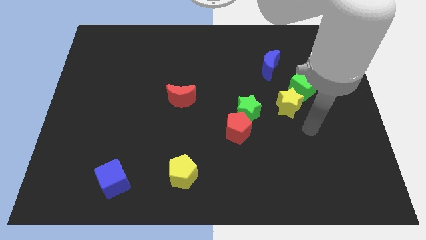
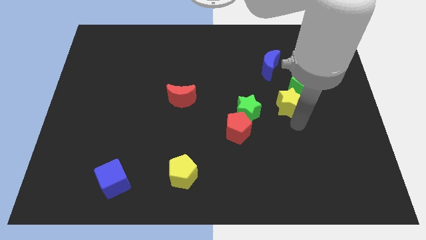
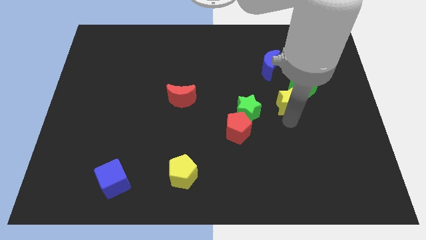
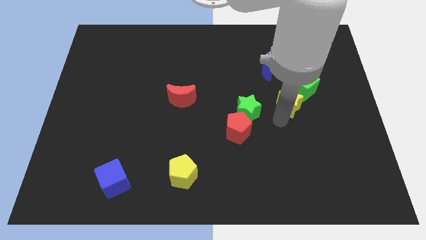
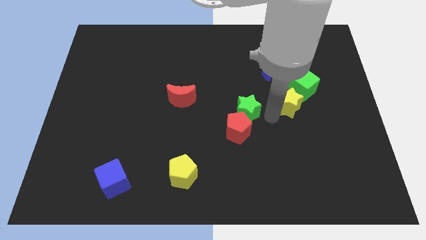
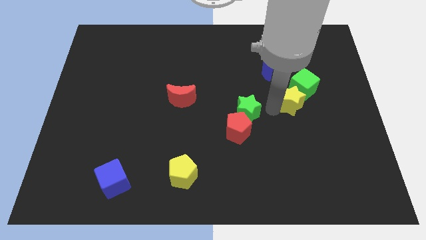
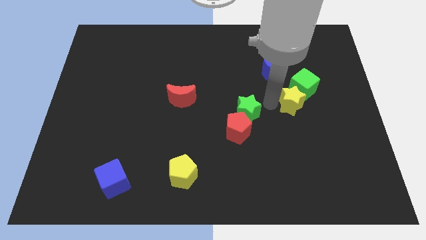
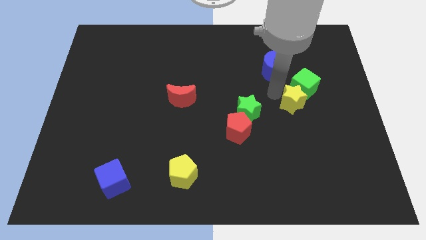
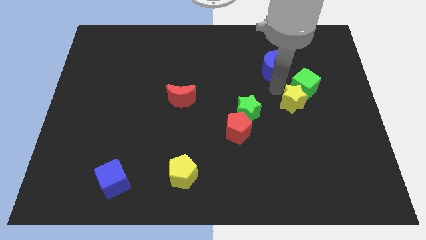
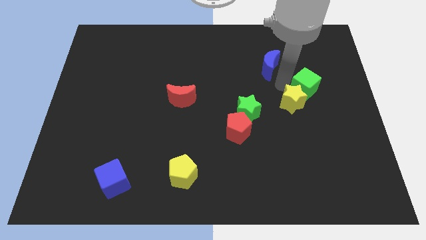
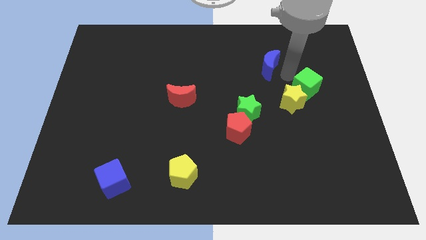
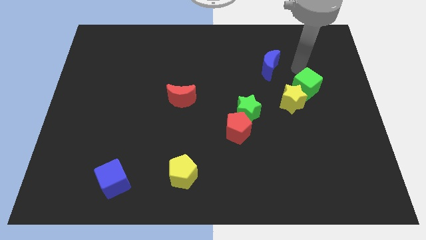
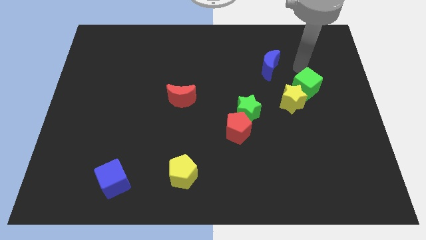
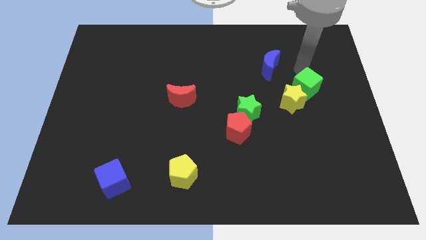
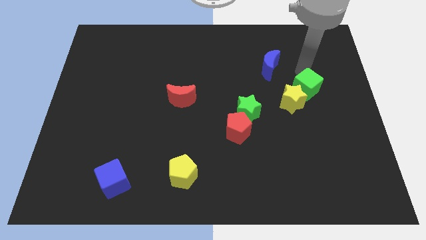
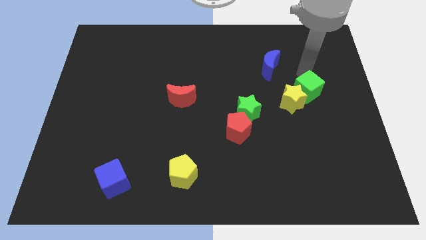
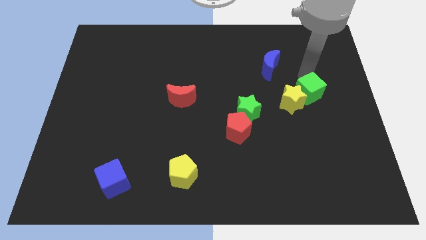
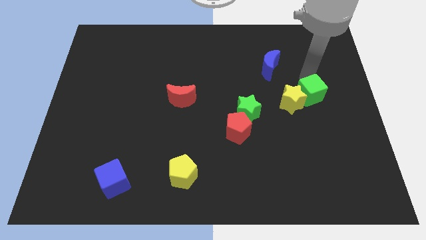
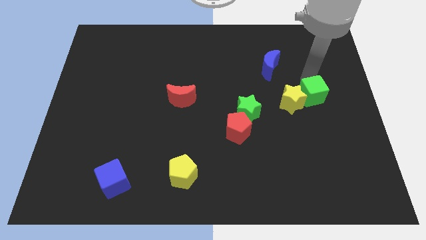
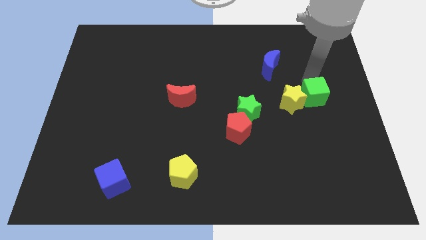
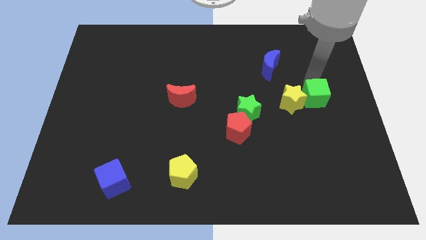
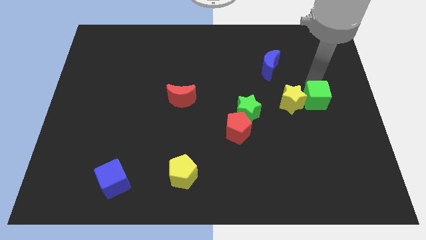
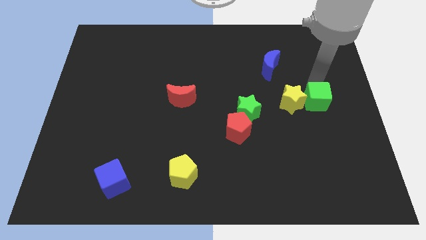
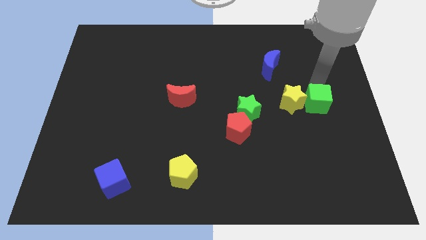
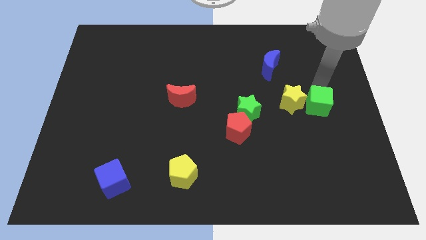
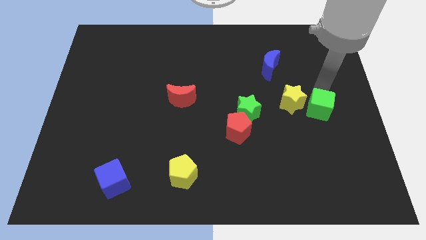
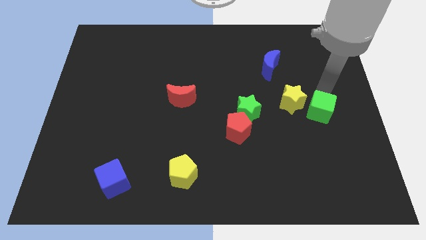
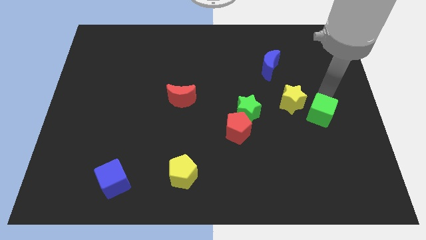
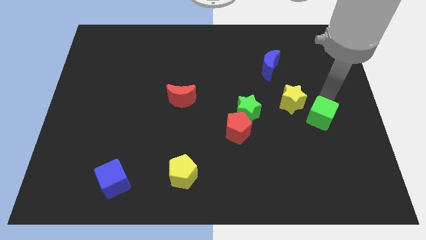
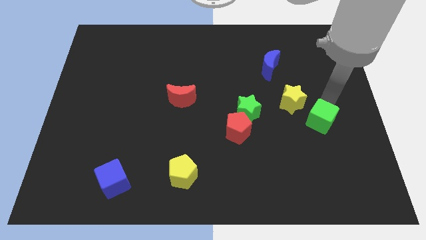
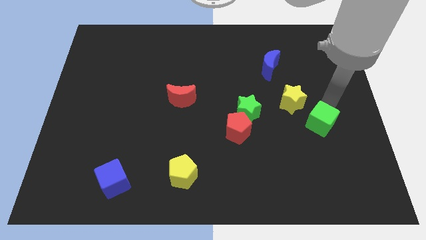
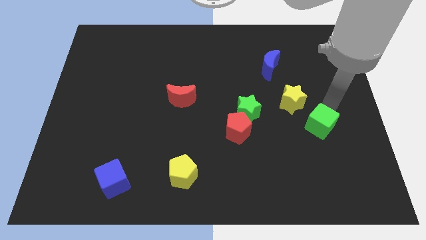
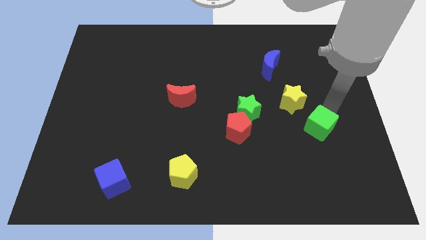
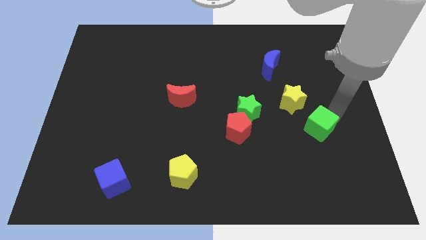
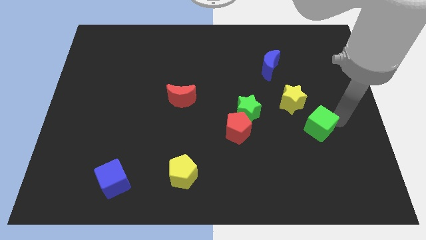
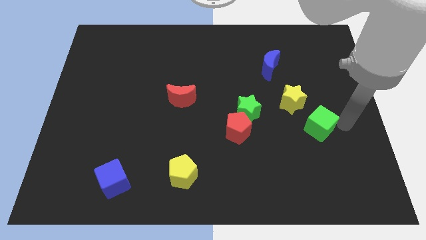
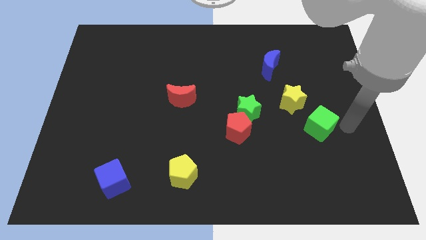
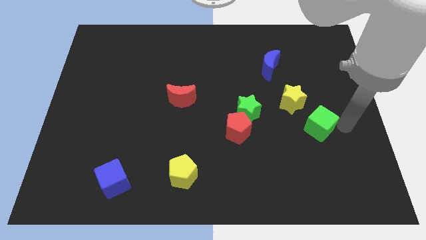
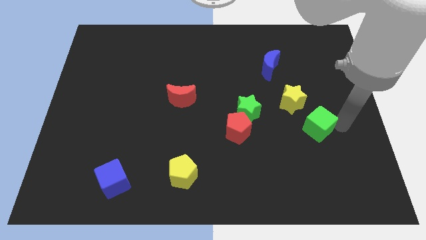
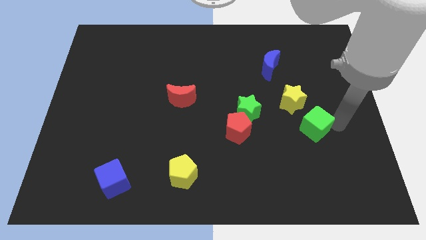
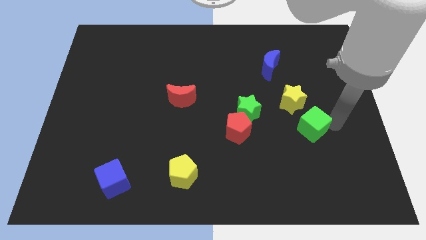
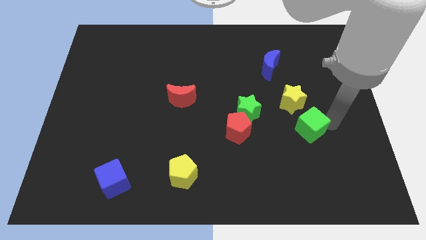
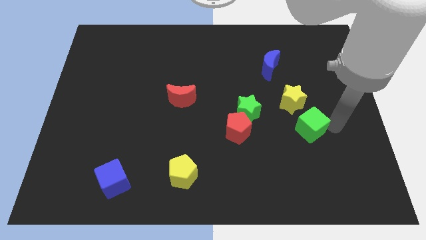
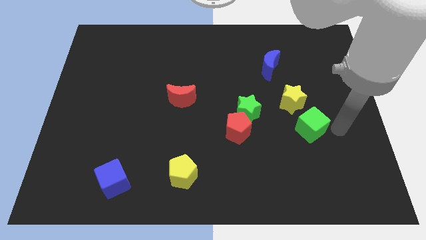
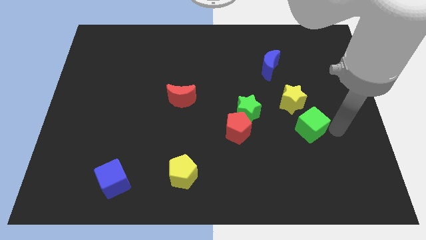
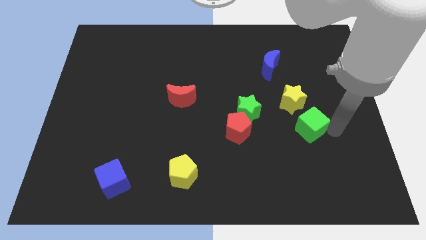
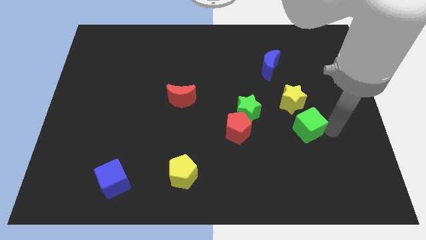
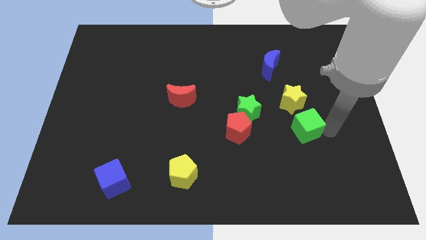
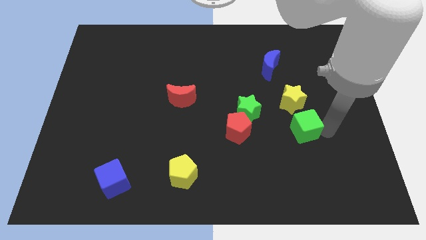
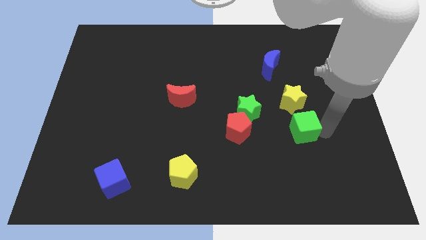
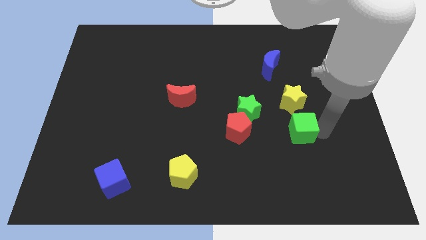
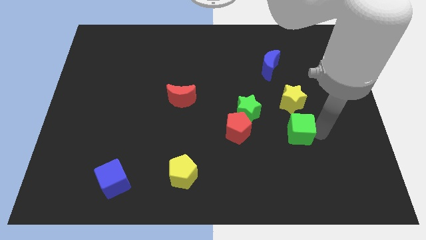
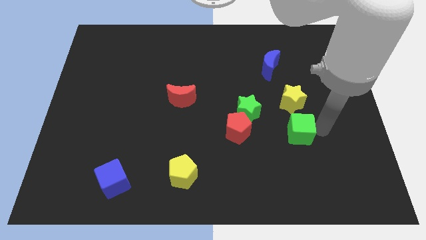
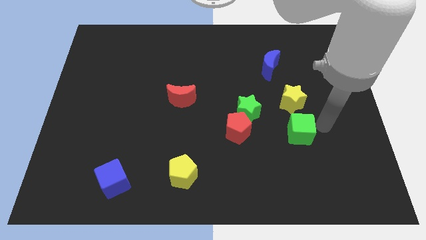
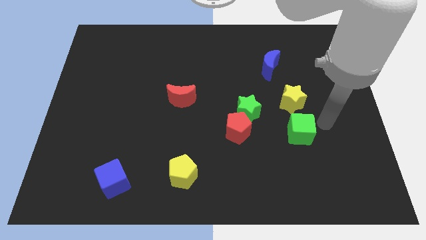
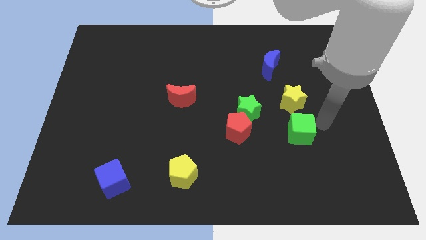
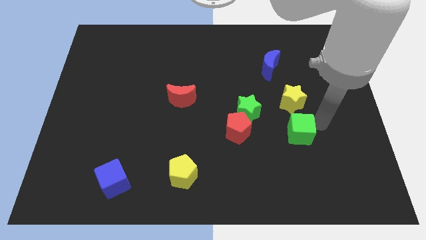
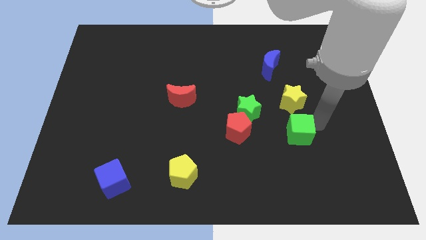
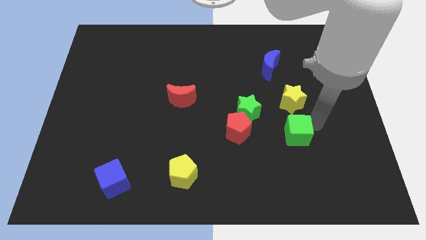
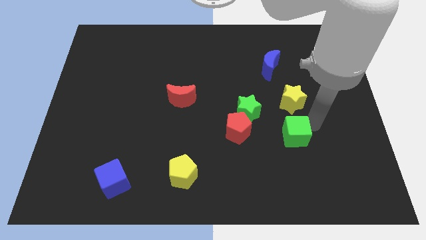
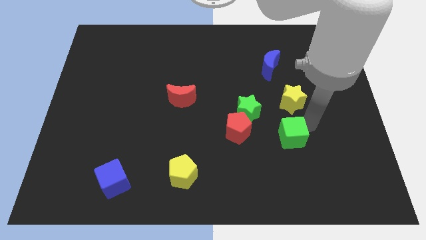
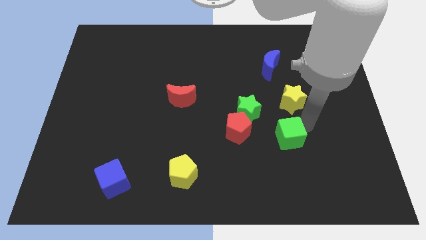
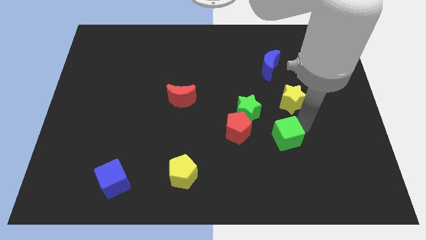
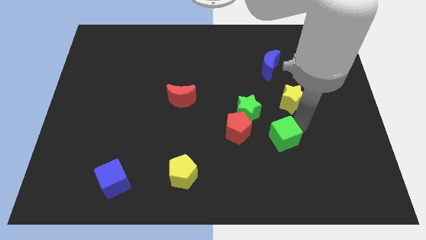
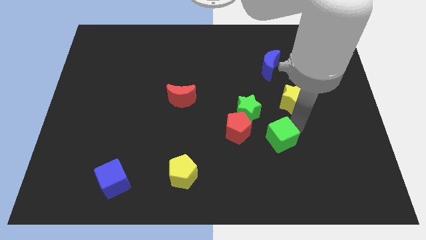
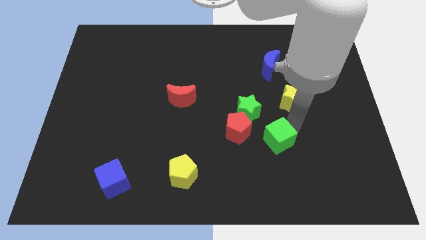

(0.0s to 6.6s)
move the green cube diagonally down and to the right of the red pentagon

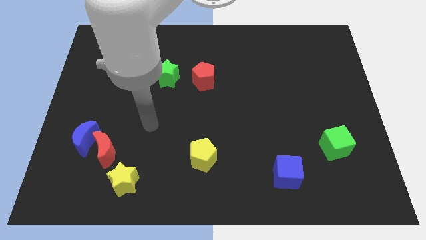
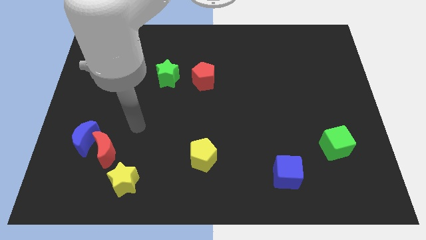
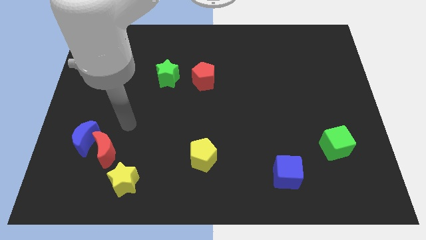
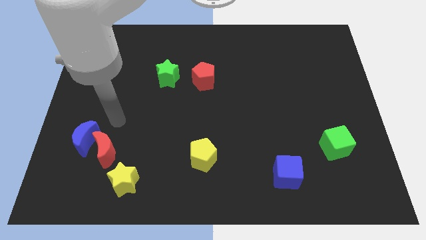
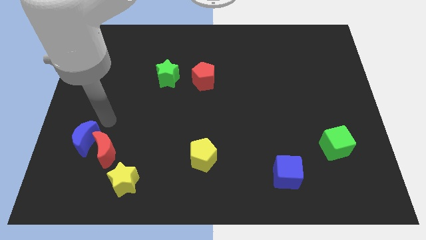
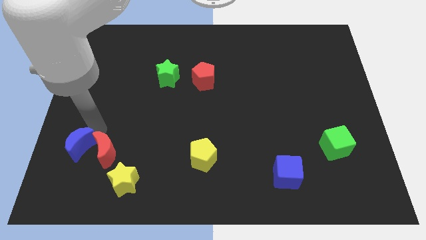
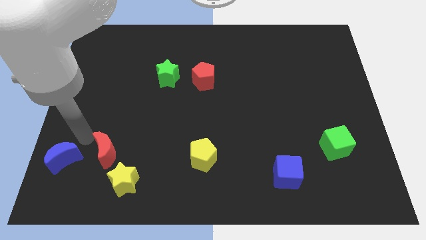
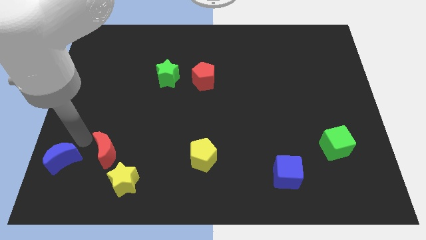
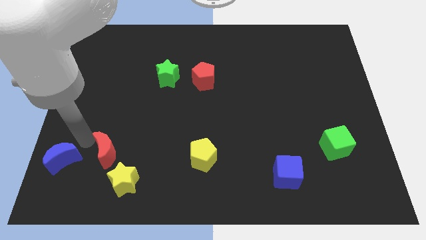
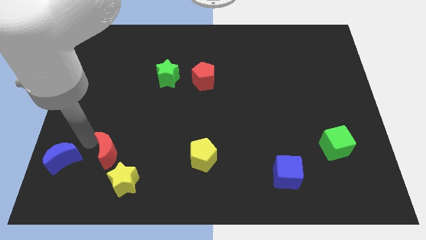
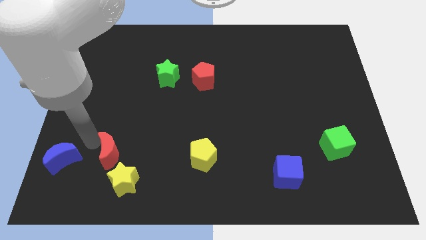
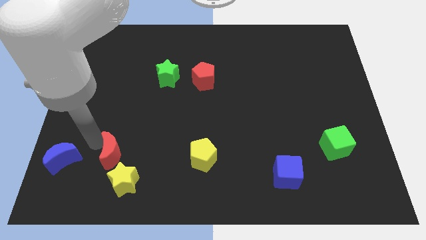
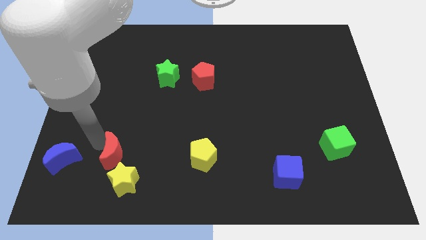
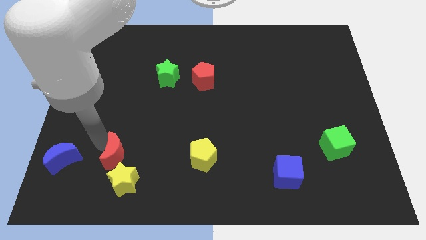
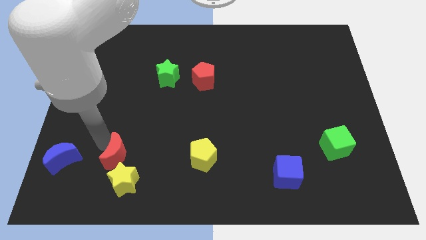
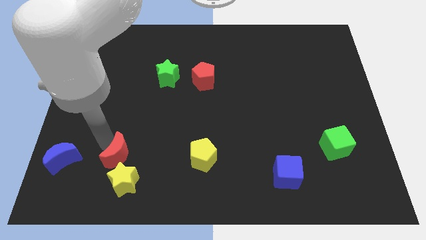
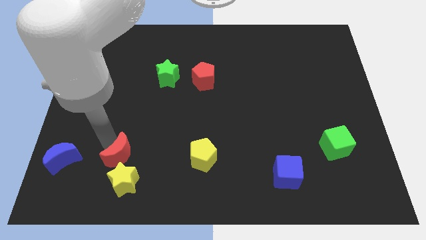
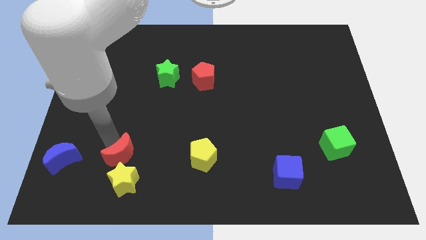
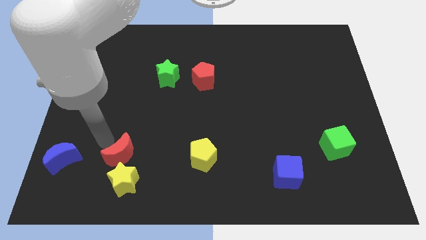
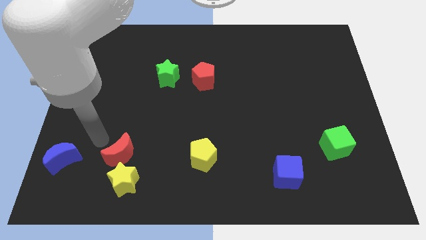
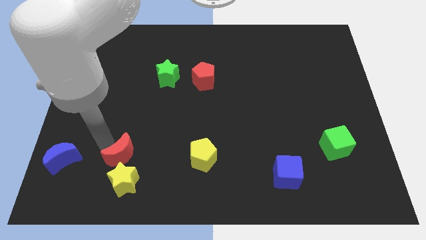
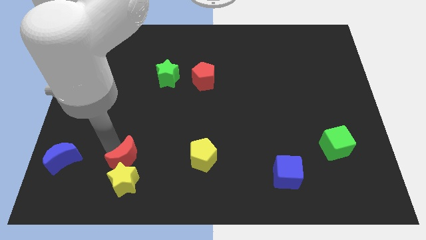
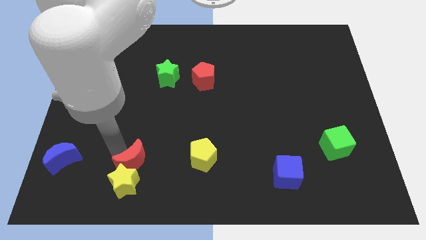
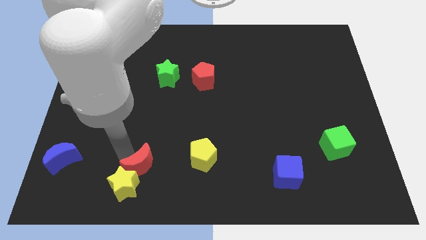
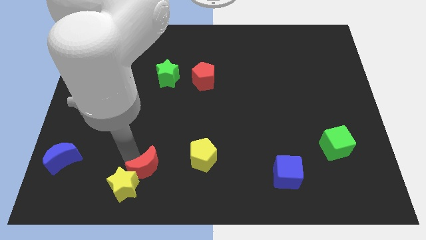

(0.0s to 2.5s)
slide the red moon just right of the yellow star
